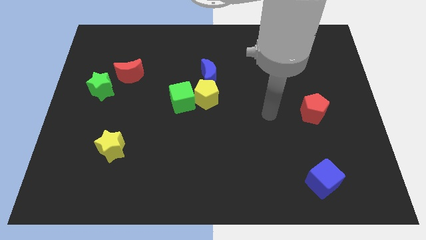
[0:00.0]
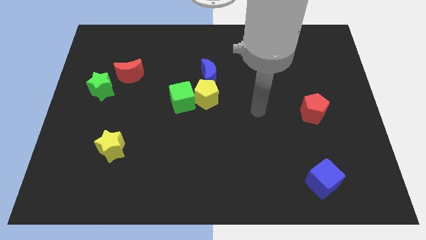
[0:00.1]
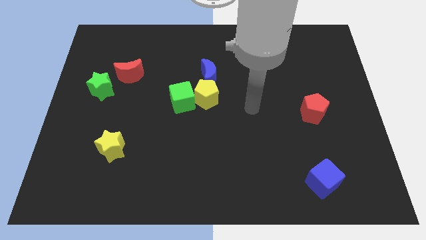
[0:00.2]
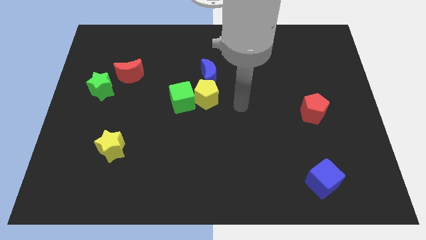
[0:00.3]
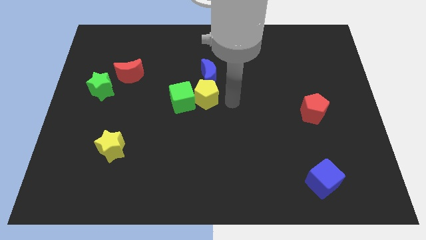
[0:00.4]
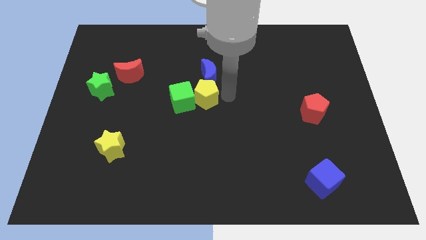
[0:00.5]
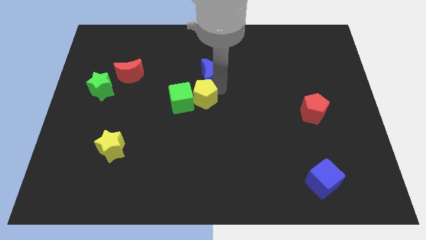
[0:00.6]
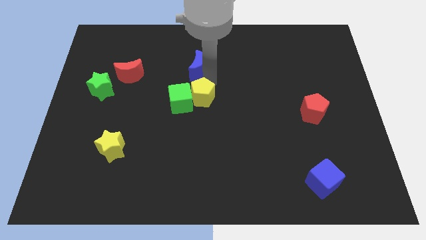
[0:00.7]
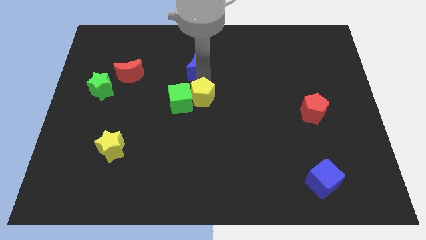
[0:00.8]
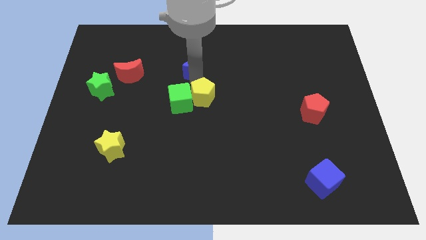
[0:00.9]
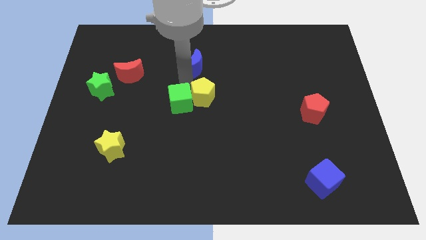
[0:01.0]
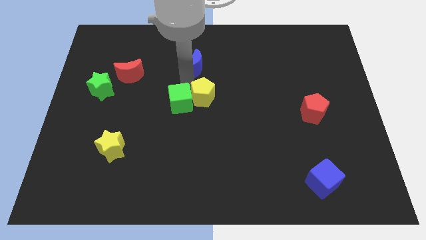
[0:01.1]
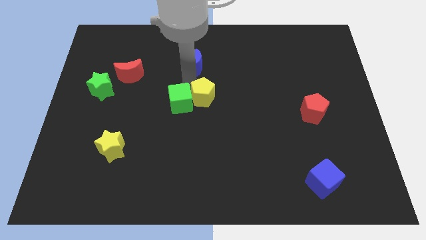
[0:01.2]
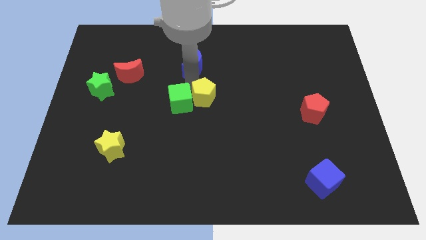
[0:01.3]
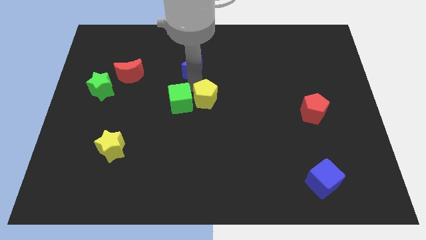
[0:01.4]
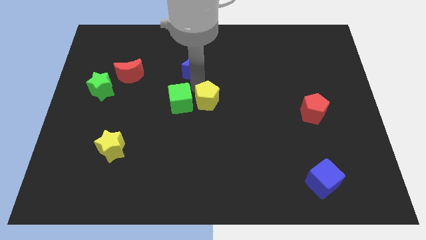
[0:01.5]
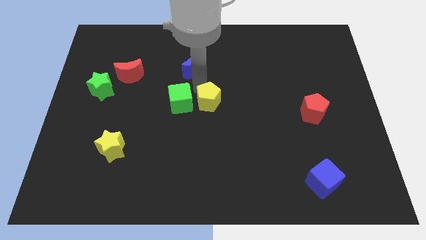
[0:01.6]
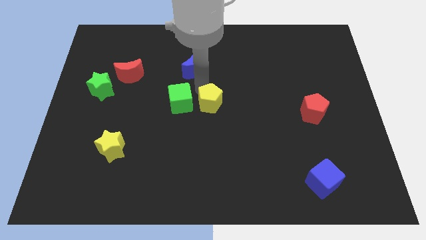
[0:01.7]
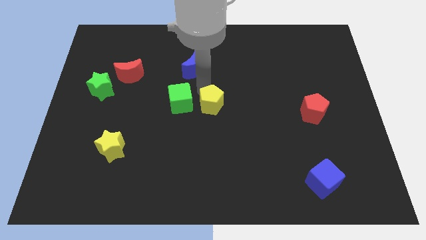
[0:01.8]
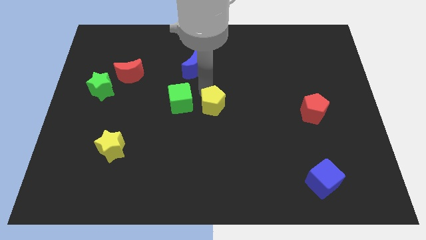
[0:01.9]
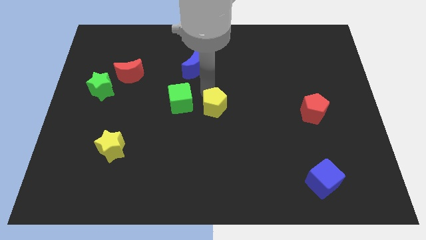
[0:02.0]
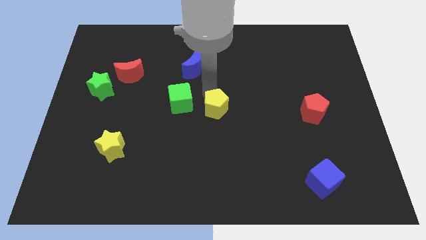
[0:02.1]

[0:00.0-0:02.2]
move the yellow pentagon away from the green cube and blue moon

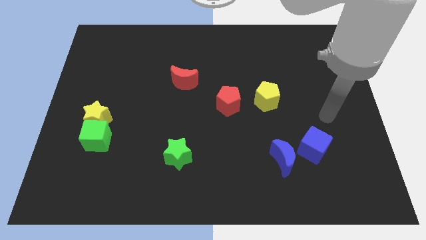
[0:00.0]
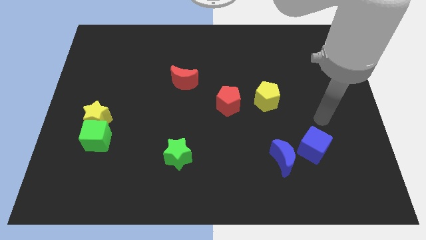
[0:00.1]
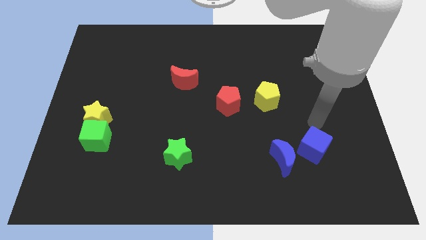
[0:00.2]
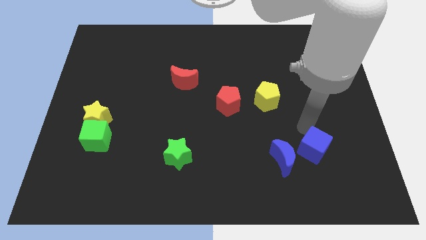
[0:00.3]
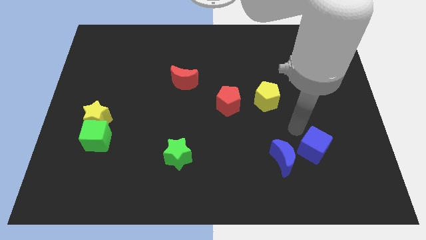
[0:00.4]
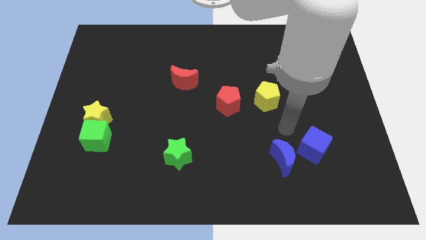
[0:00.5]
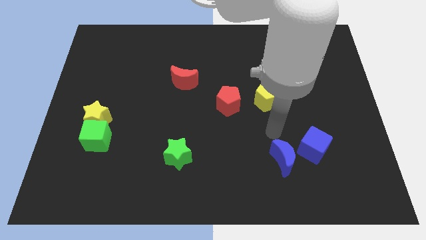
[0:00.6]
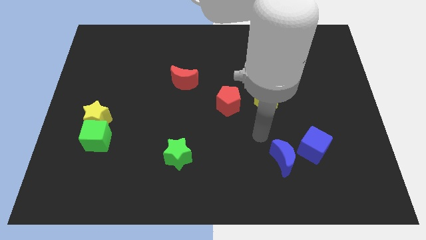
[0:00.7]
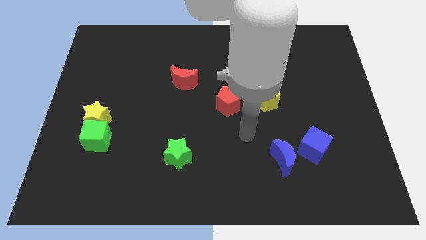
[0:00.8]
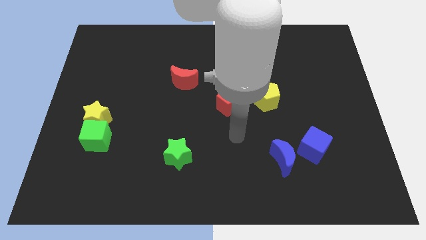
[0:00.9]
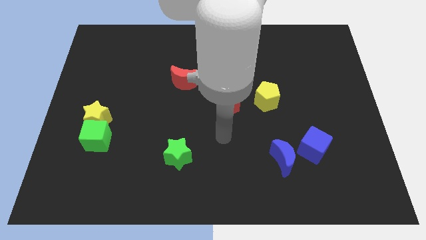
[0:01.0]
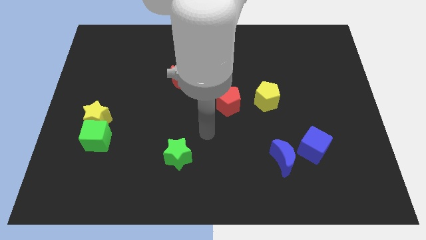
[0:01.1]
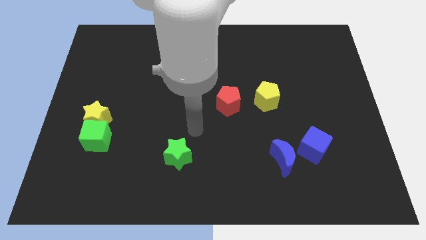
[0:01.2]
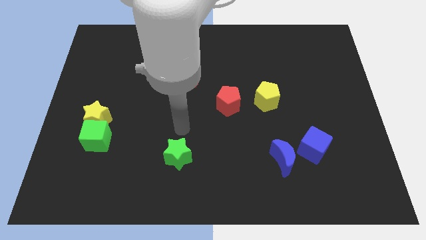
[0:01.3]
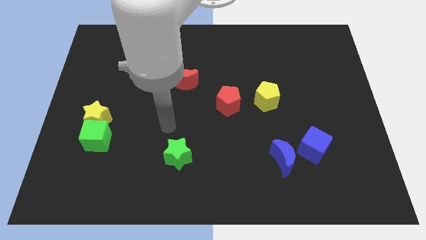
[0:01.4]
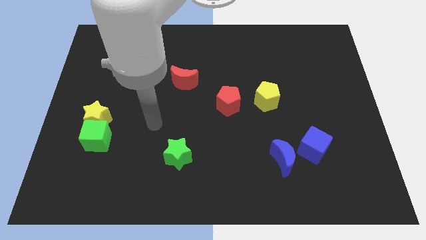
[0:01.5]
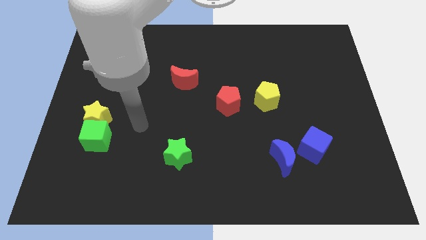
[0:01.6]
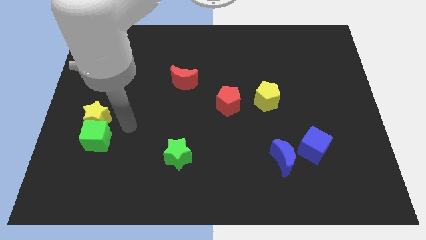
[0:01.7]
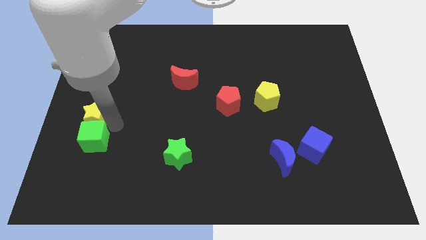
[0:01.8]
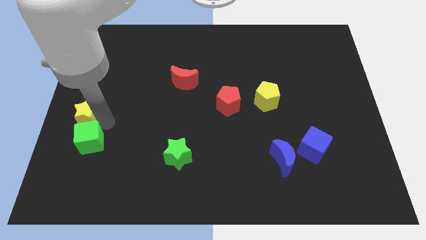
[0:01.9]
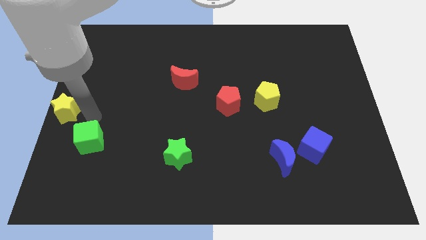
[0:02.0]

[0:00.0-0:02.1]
separate the green cube from the yellow star

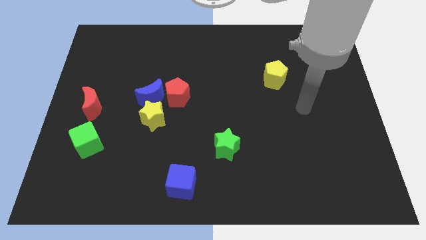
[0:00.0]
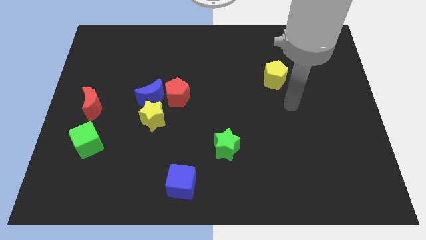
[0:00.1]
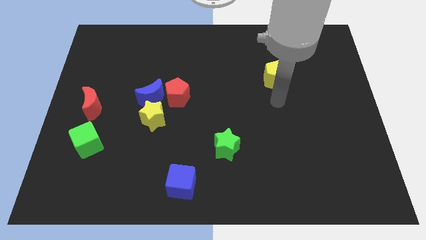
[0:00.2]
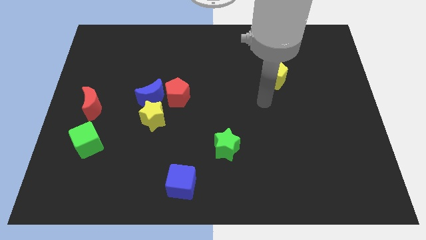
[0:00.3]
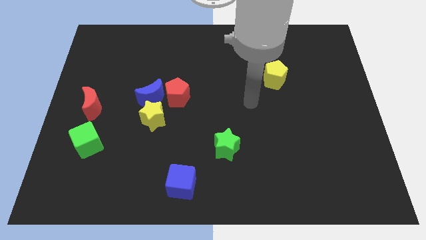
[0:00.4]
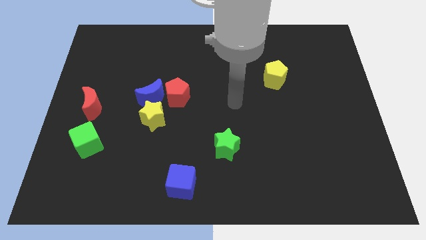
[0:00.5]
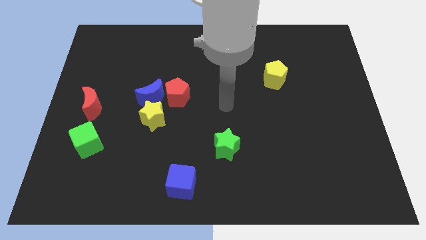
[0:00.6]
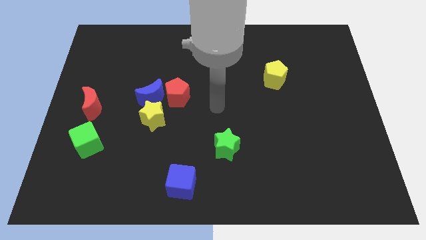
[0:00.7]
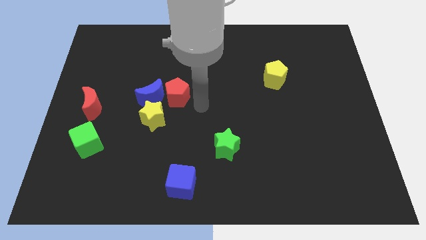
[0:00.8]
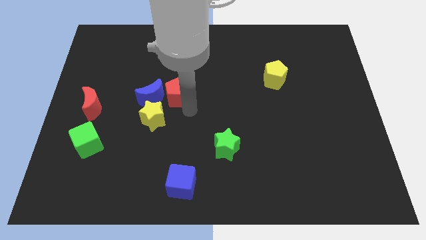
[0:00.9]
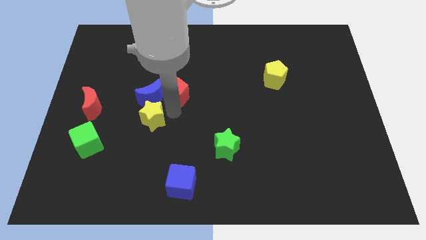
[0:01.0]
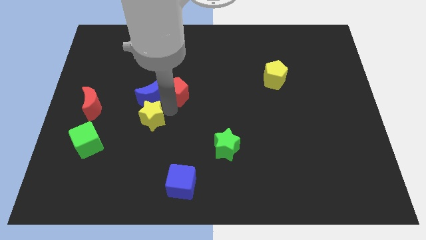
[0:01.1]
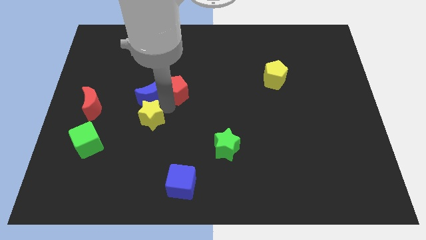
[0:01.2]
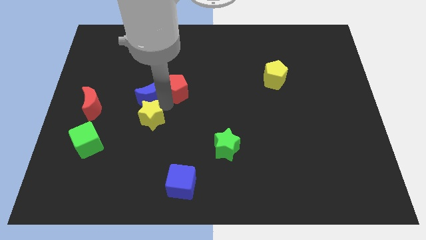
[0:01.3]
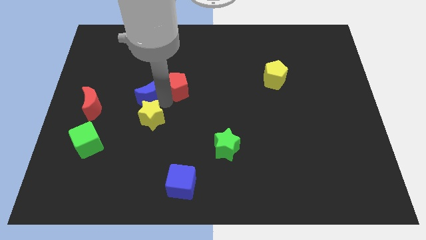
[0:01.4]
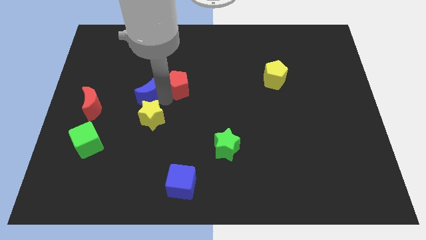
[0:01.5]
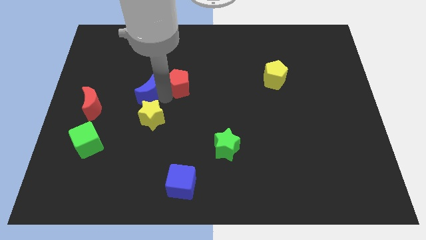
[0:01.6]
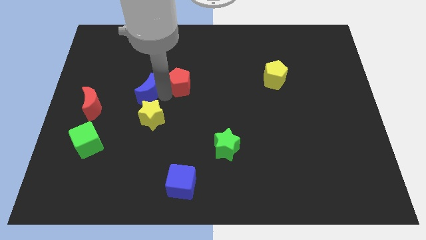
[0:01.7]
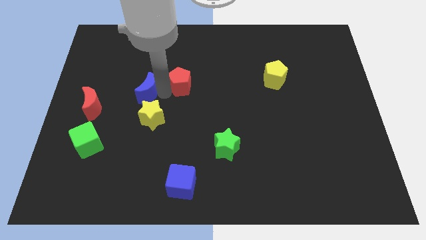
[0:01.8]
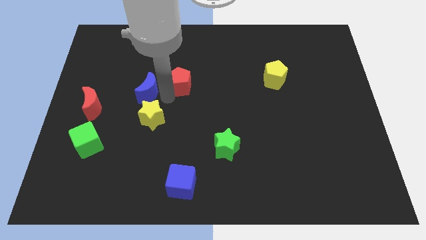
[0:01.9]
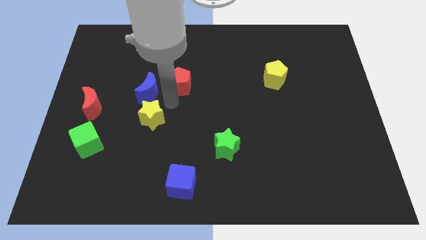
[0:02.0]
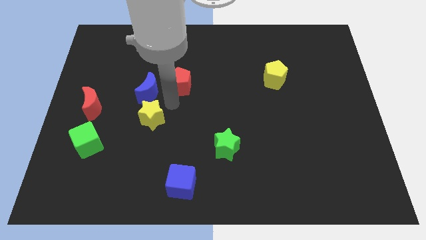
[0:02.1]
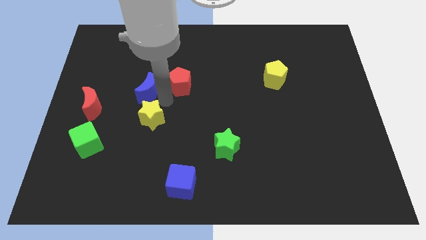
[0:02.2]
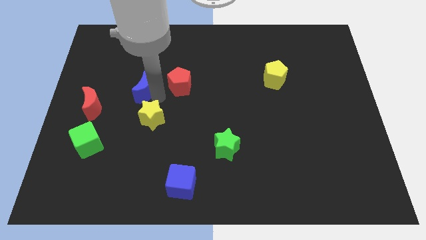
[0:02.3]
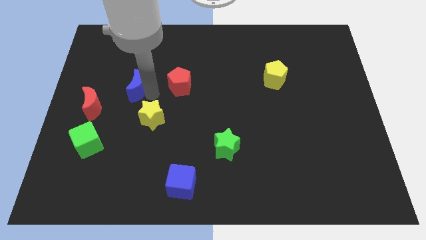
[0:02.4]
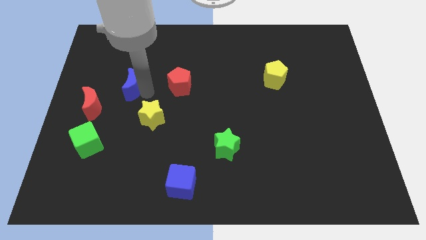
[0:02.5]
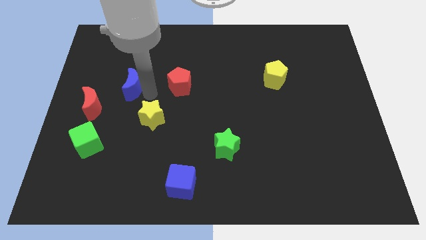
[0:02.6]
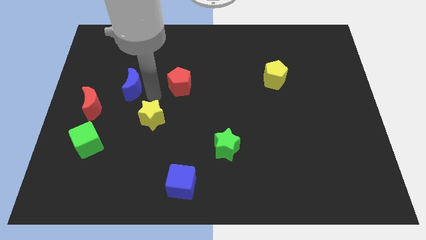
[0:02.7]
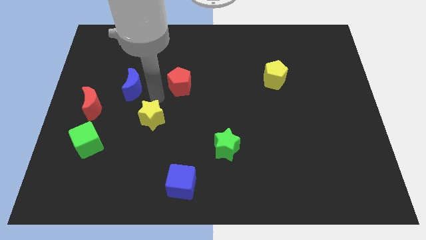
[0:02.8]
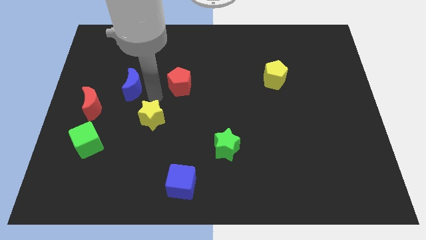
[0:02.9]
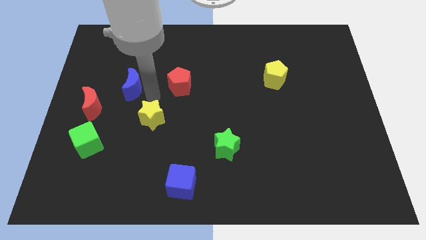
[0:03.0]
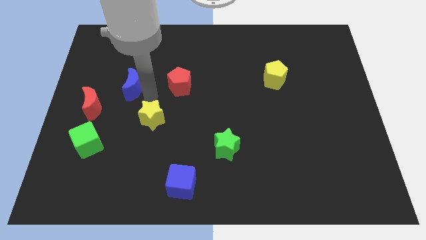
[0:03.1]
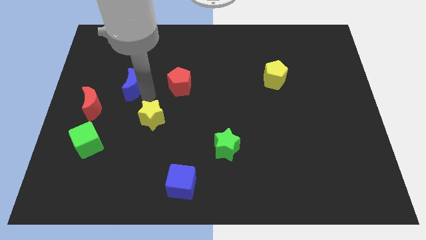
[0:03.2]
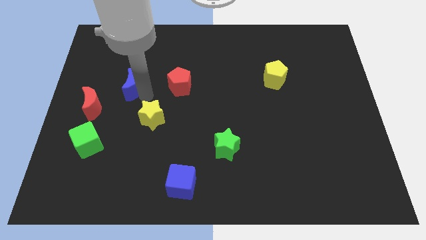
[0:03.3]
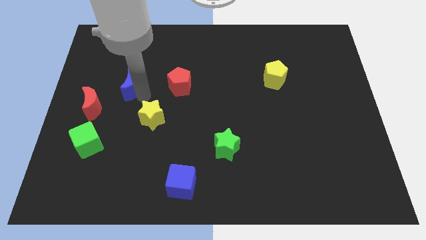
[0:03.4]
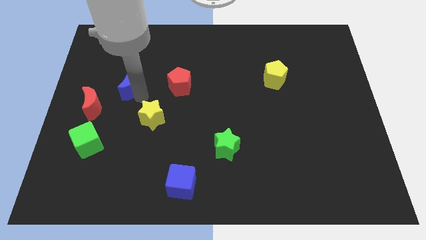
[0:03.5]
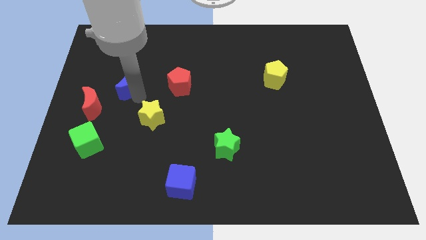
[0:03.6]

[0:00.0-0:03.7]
pull the blue moon apart from the red pentagon and yellow star

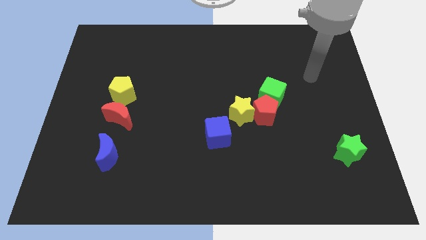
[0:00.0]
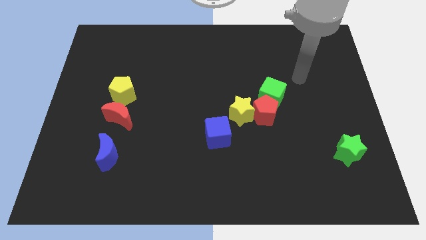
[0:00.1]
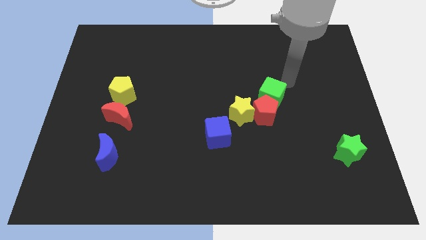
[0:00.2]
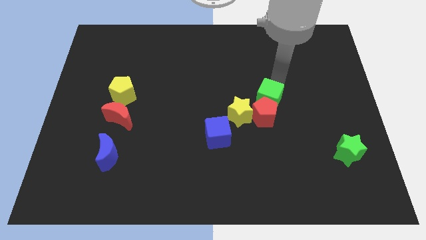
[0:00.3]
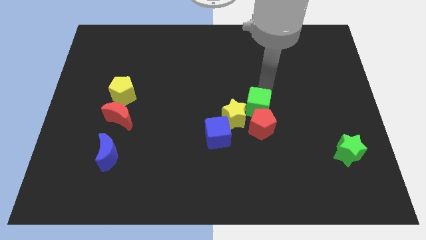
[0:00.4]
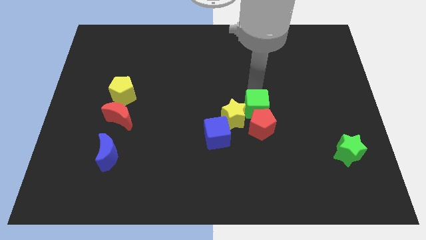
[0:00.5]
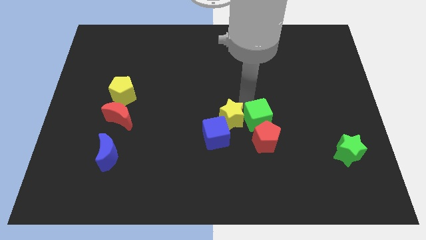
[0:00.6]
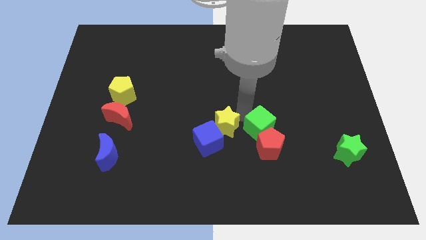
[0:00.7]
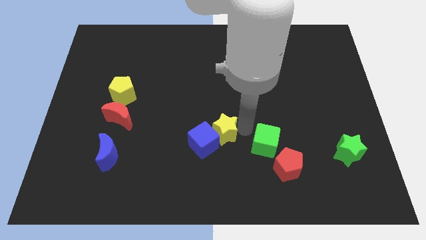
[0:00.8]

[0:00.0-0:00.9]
separate the red pentagon from the yellow star and green cube

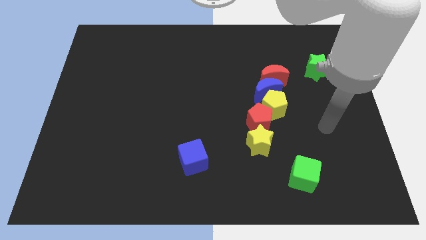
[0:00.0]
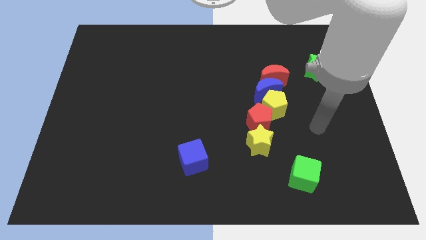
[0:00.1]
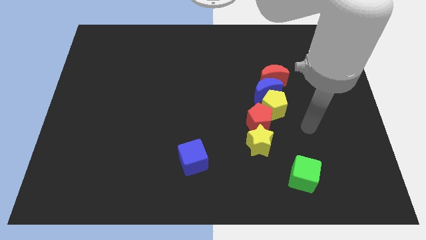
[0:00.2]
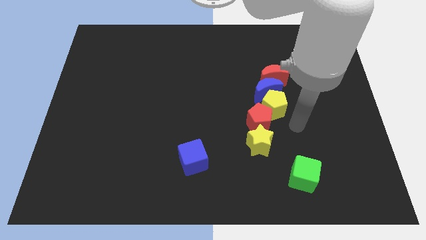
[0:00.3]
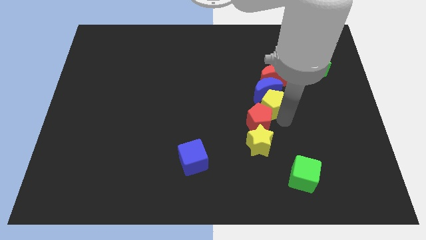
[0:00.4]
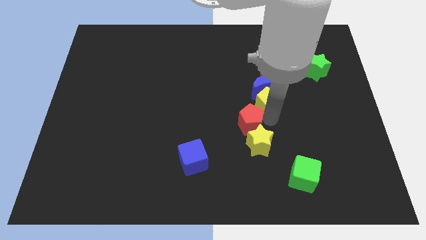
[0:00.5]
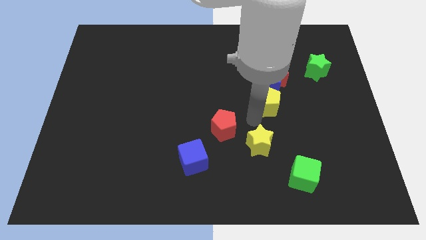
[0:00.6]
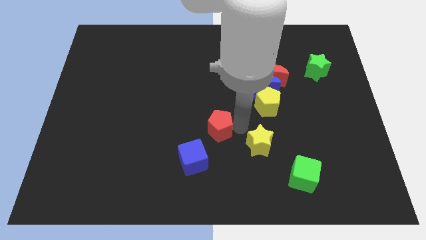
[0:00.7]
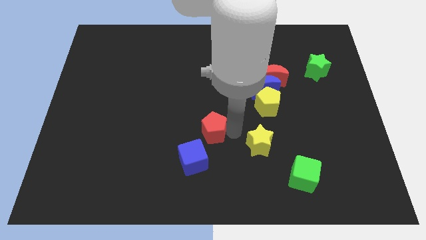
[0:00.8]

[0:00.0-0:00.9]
separate the yellow star from the red pentagon
